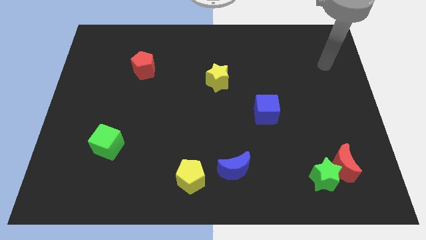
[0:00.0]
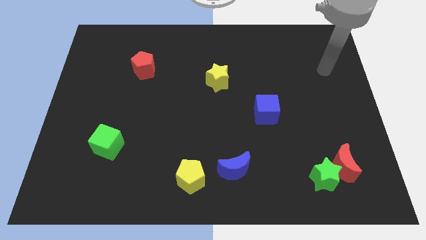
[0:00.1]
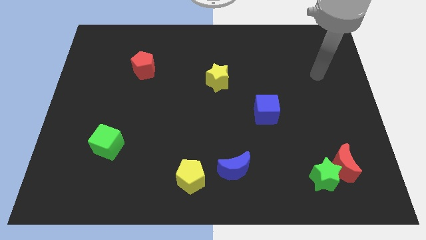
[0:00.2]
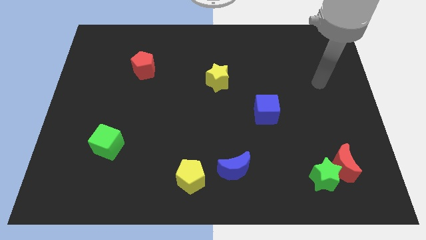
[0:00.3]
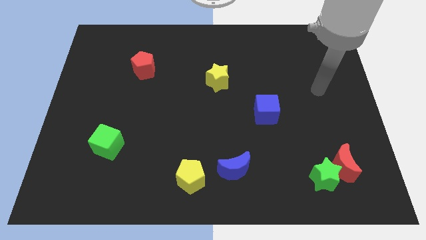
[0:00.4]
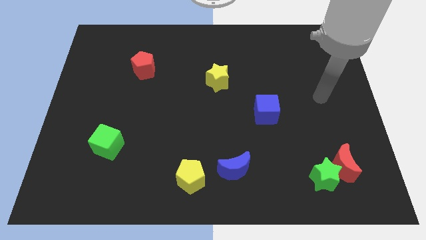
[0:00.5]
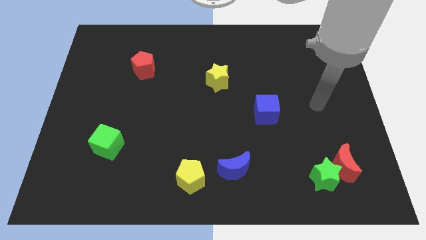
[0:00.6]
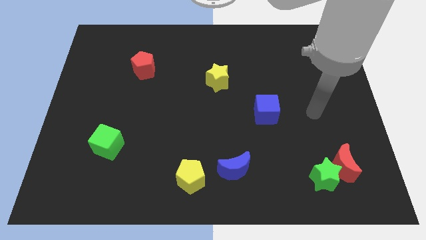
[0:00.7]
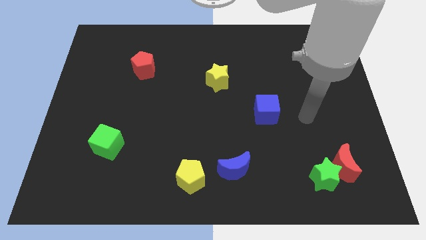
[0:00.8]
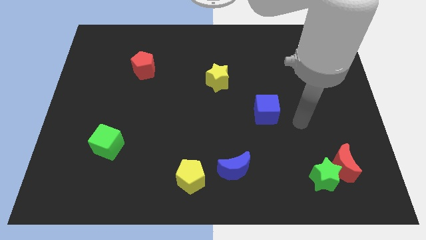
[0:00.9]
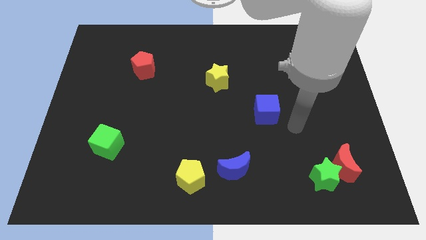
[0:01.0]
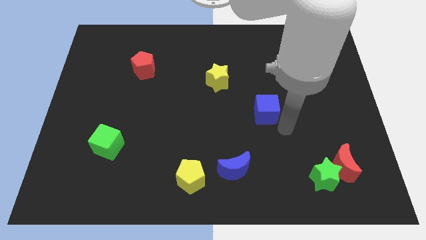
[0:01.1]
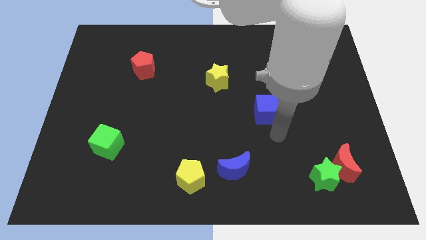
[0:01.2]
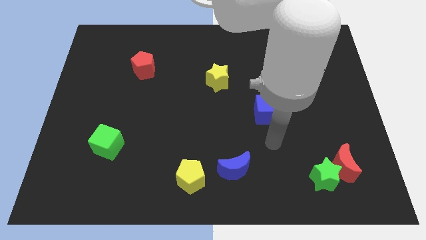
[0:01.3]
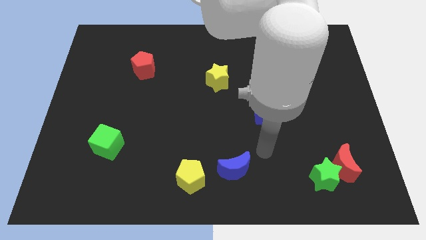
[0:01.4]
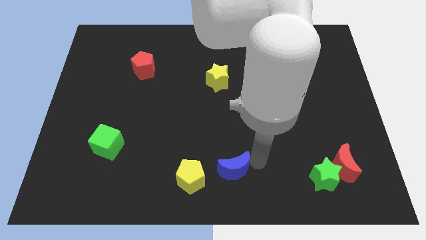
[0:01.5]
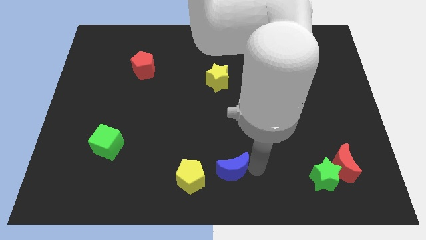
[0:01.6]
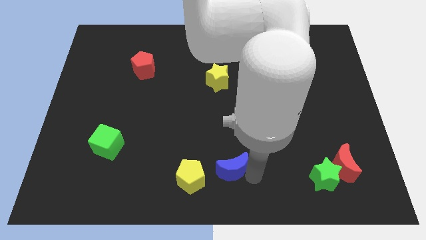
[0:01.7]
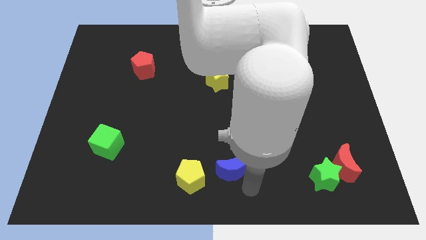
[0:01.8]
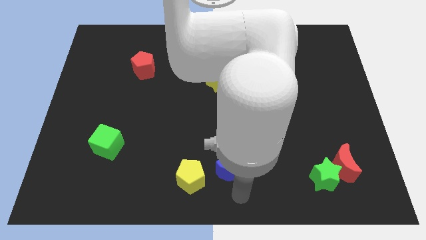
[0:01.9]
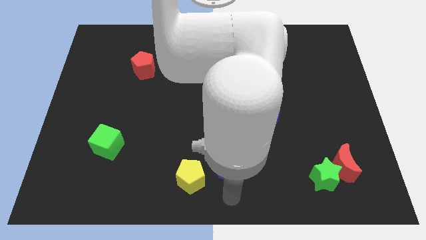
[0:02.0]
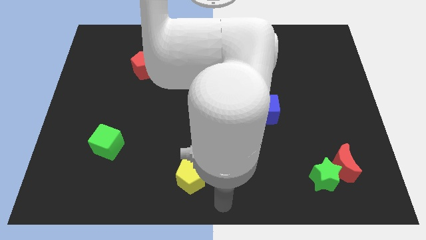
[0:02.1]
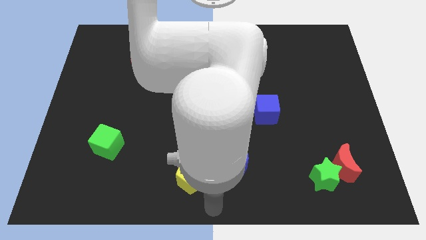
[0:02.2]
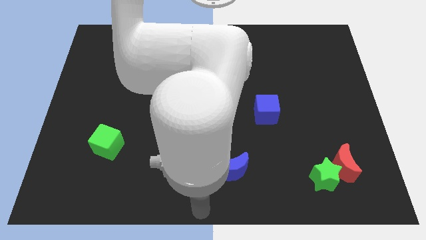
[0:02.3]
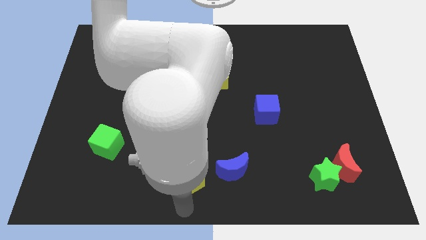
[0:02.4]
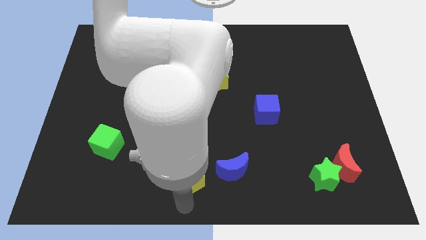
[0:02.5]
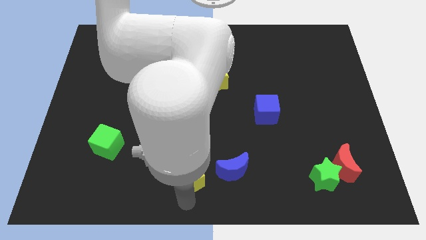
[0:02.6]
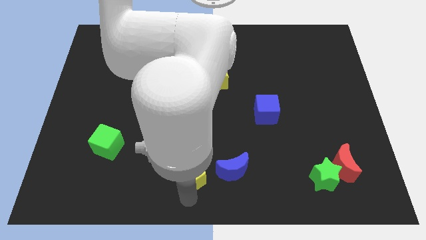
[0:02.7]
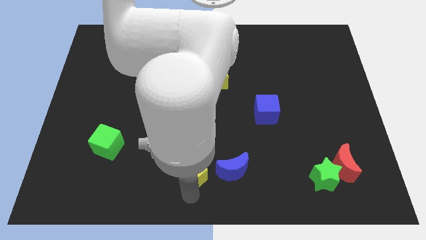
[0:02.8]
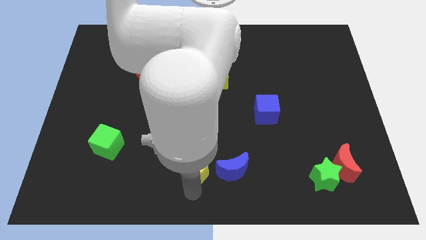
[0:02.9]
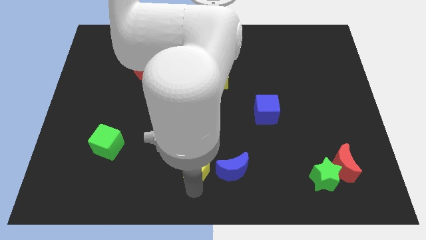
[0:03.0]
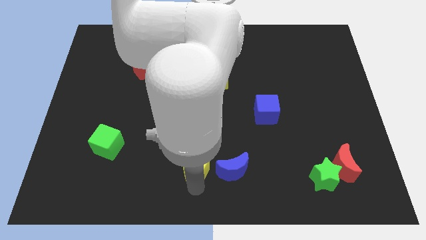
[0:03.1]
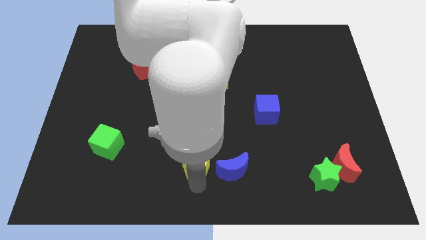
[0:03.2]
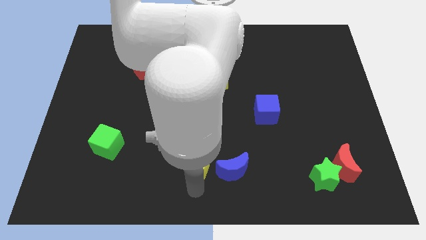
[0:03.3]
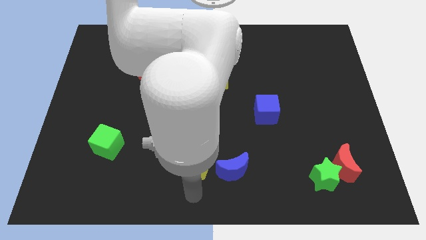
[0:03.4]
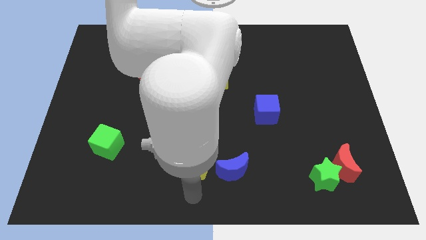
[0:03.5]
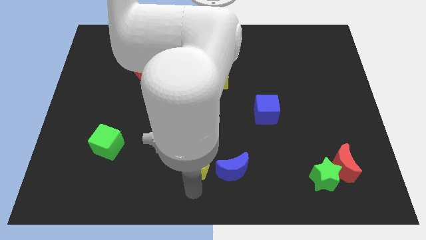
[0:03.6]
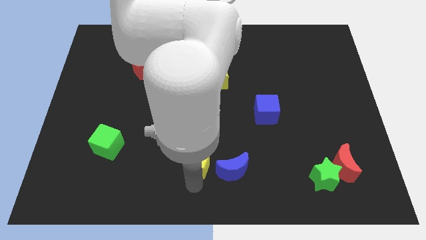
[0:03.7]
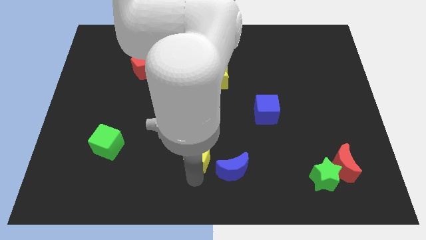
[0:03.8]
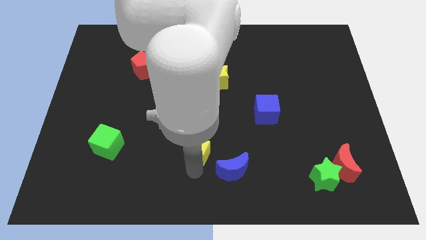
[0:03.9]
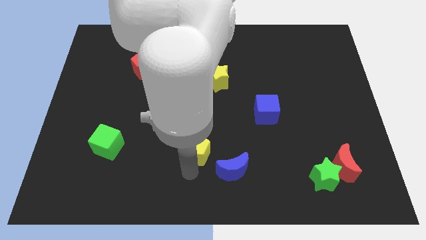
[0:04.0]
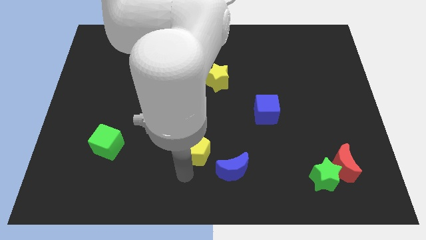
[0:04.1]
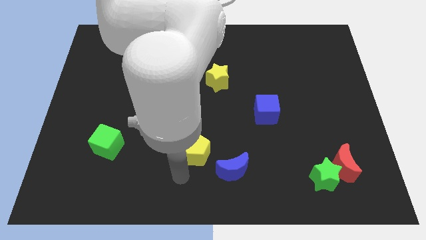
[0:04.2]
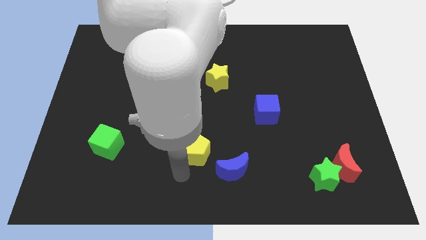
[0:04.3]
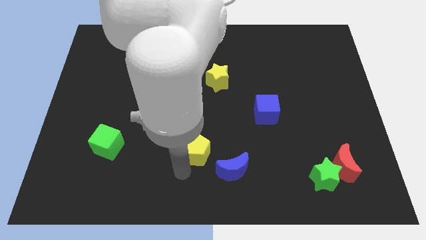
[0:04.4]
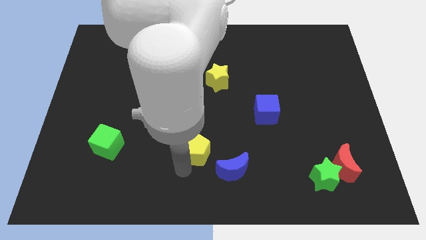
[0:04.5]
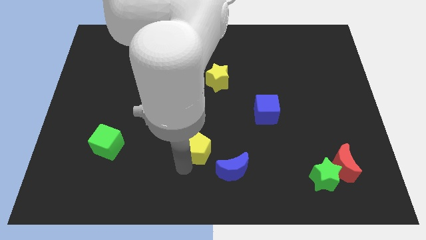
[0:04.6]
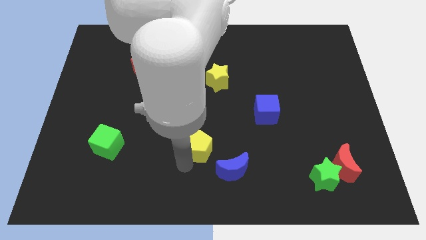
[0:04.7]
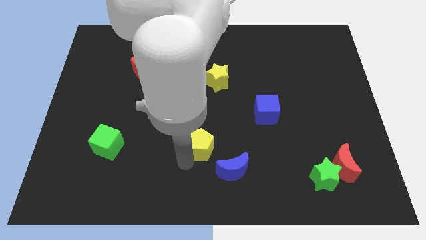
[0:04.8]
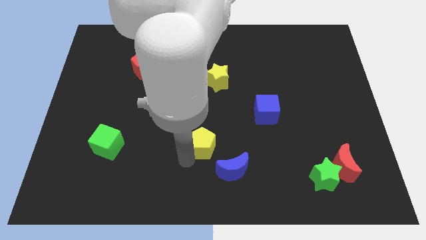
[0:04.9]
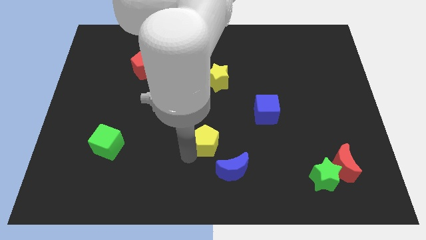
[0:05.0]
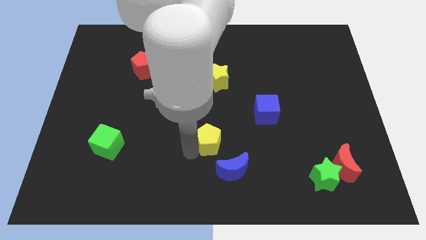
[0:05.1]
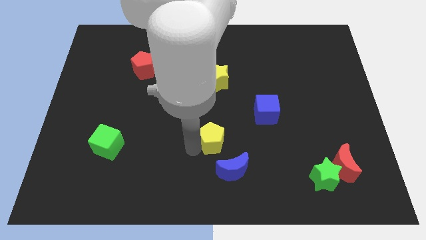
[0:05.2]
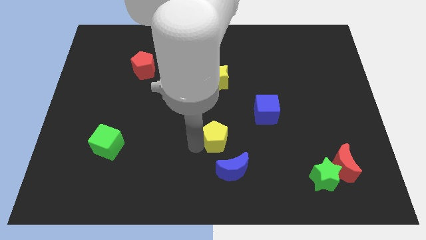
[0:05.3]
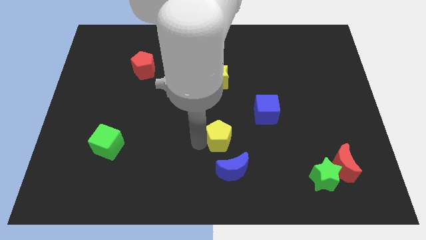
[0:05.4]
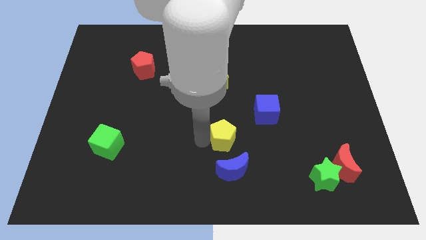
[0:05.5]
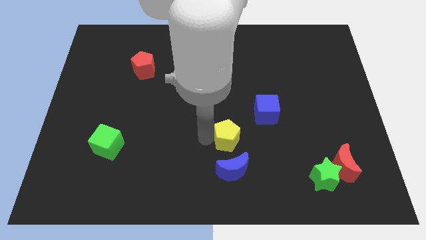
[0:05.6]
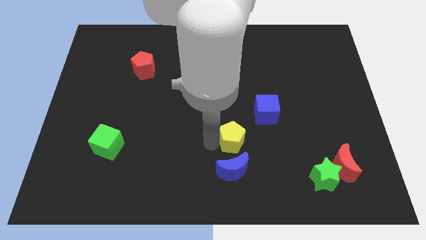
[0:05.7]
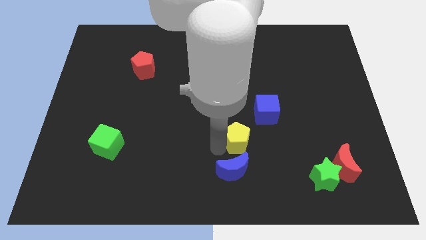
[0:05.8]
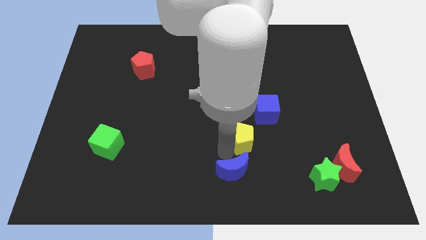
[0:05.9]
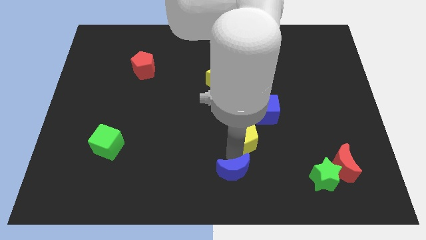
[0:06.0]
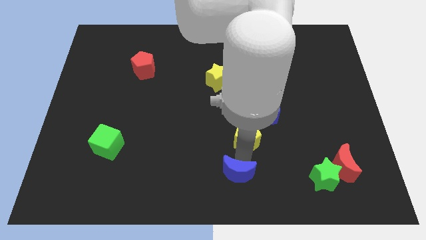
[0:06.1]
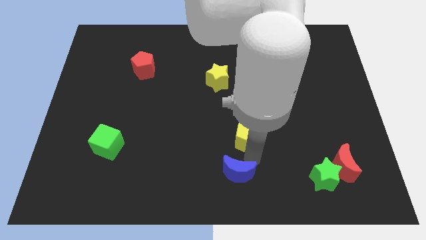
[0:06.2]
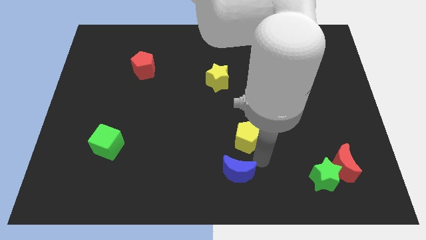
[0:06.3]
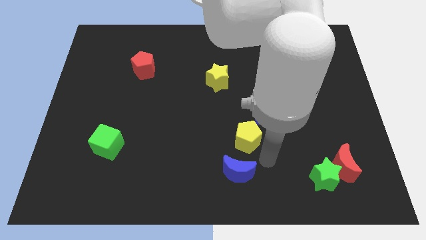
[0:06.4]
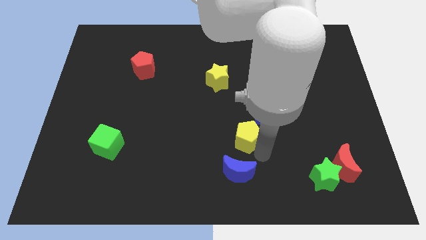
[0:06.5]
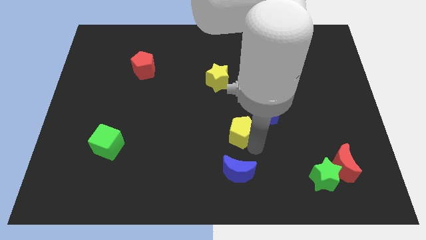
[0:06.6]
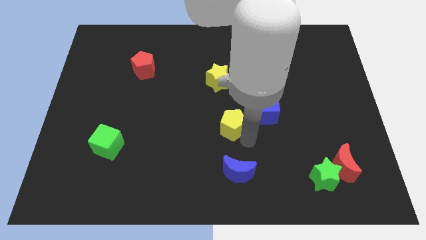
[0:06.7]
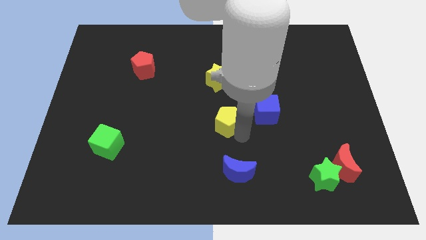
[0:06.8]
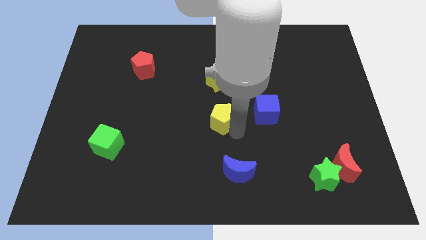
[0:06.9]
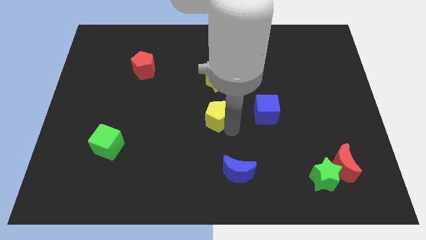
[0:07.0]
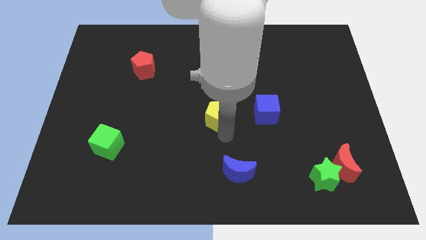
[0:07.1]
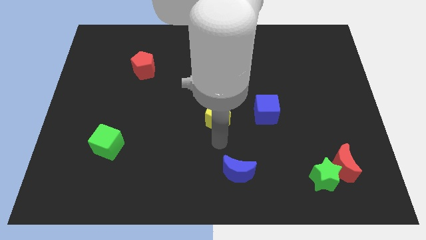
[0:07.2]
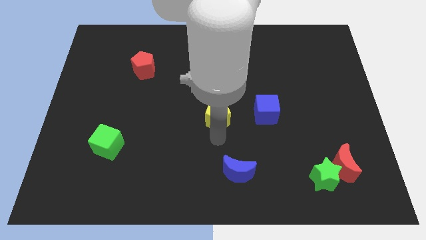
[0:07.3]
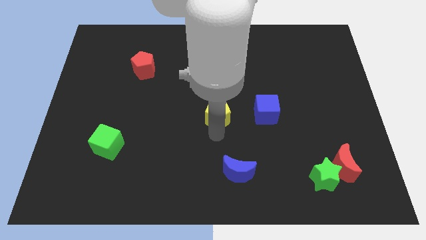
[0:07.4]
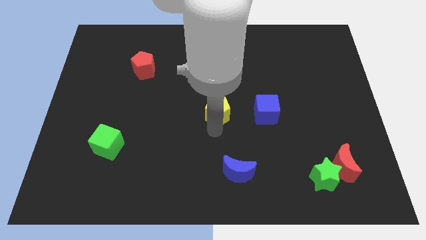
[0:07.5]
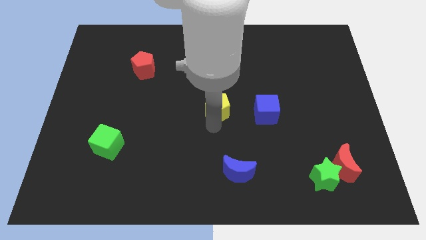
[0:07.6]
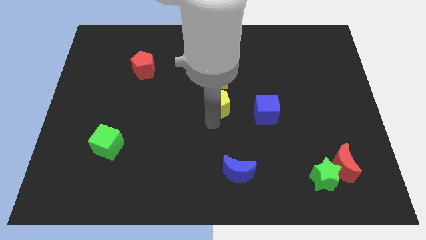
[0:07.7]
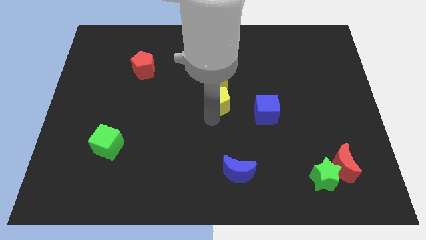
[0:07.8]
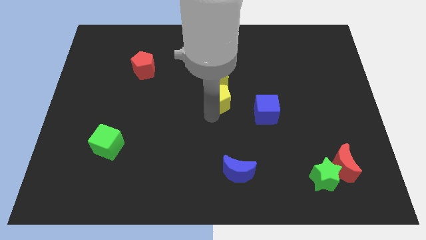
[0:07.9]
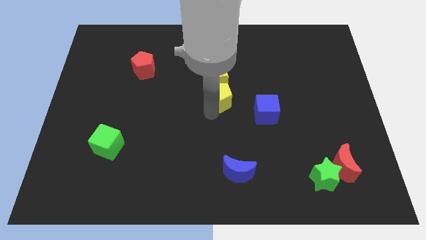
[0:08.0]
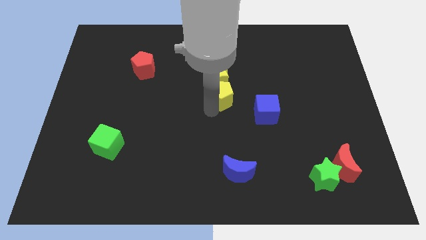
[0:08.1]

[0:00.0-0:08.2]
put the yellow pentagon to the yellow star
